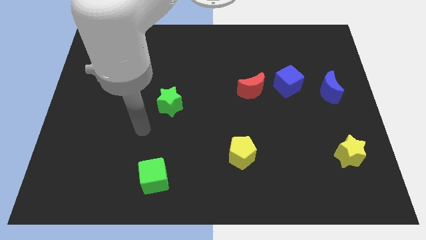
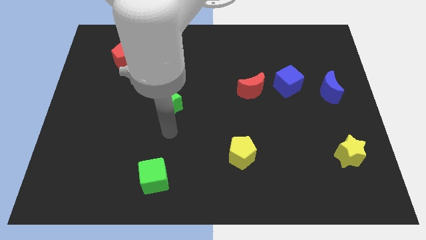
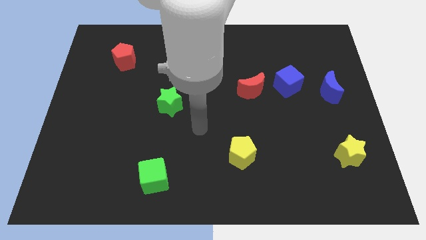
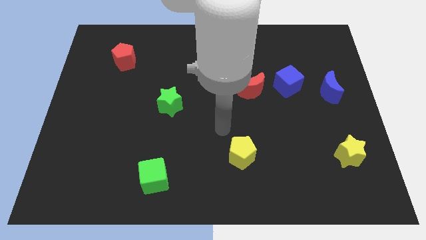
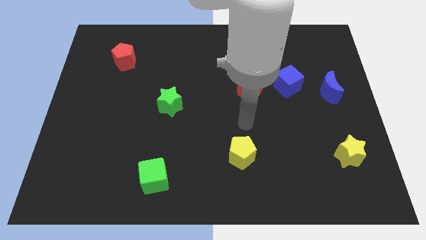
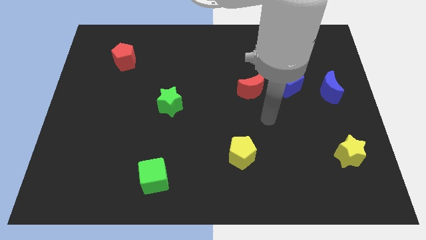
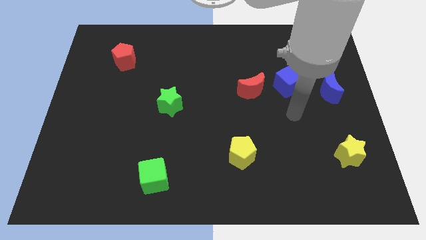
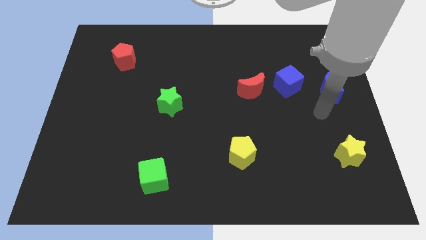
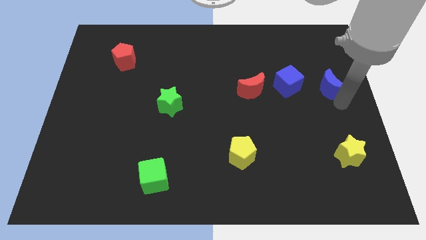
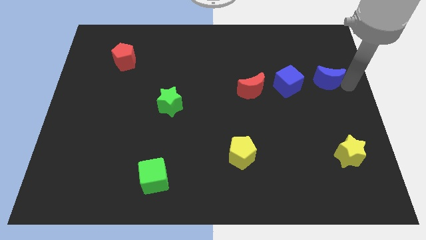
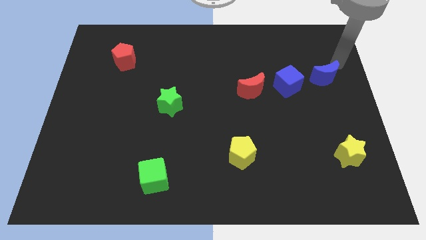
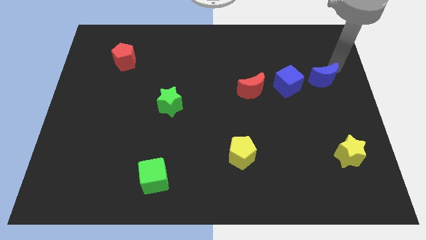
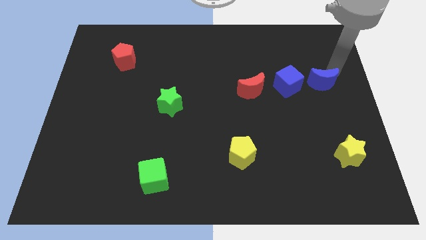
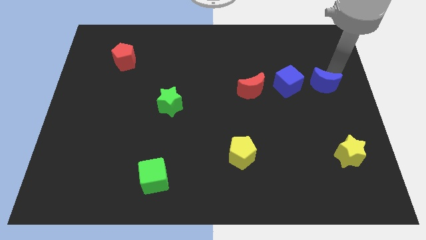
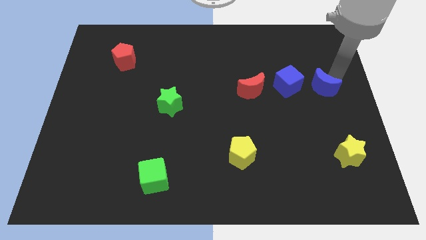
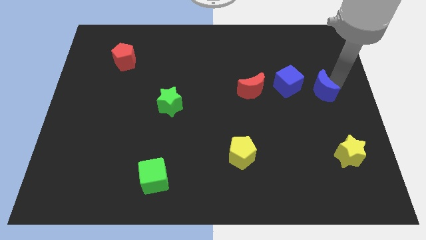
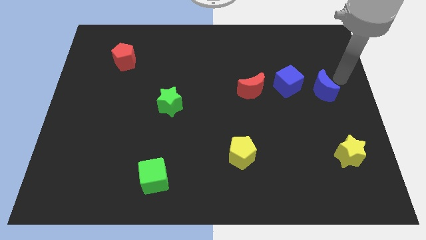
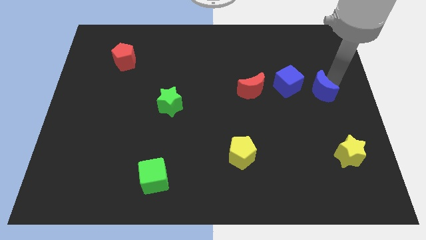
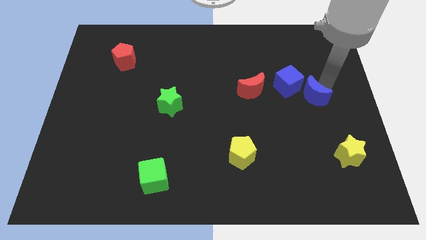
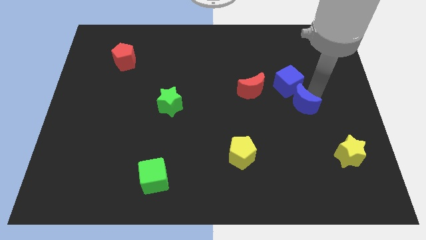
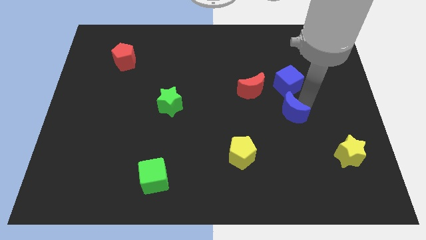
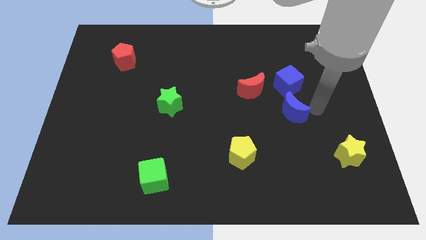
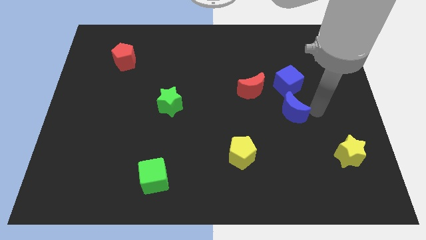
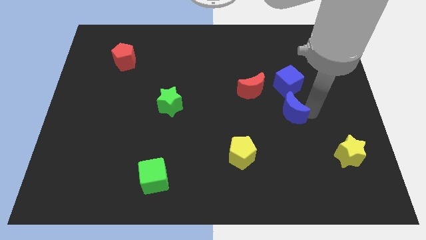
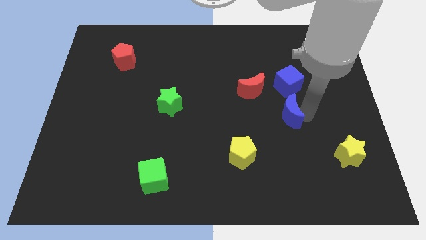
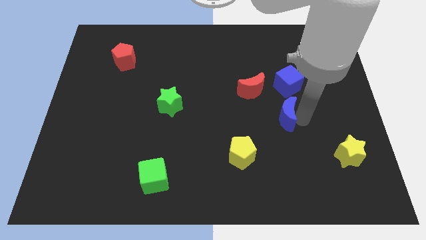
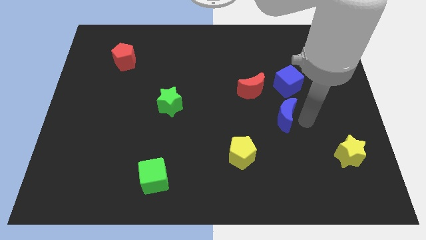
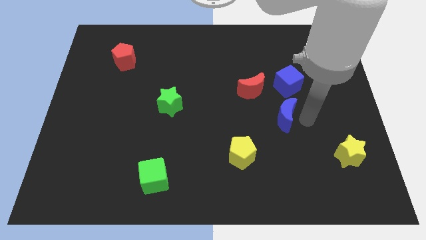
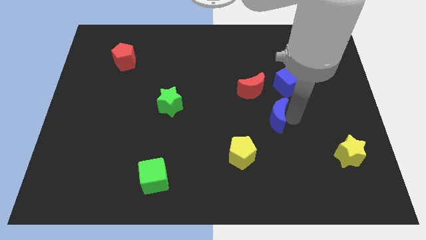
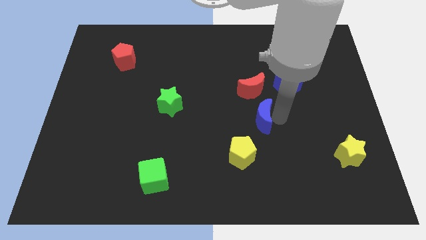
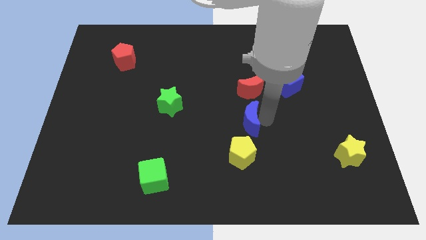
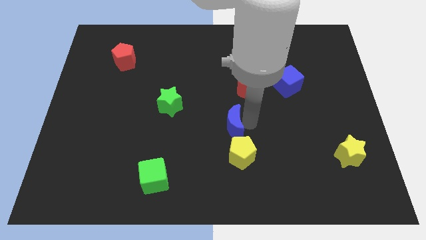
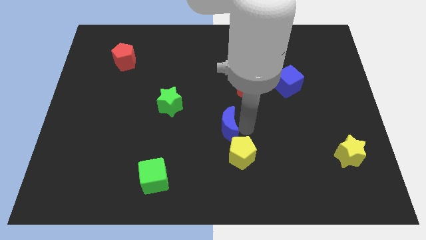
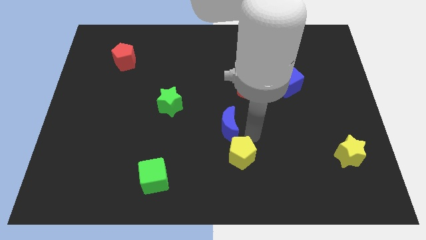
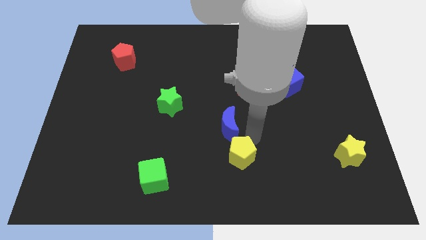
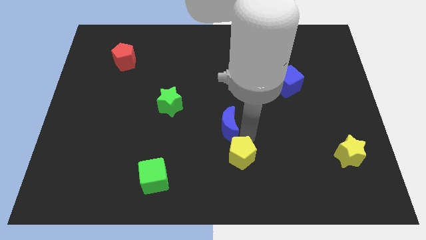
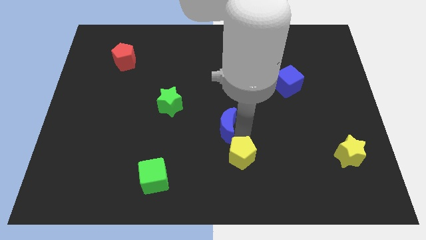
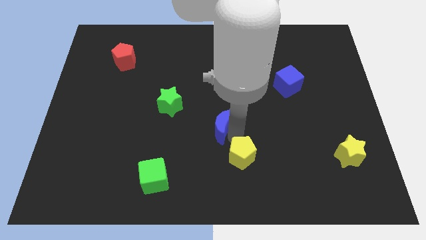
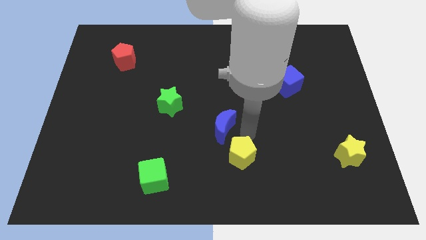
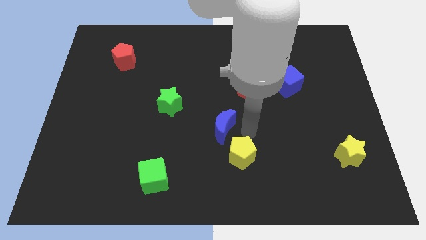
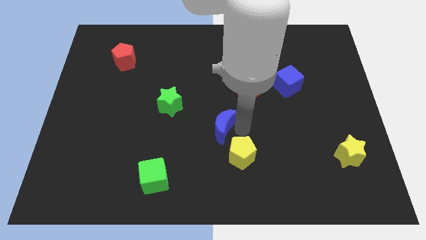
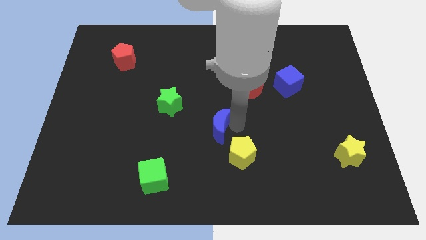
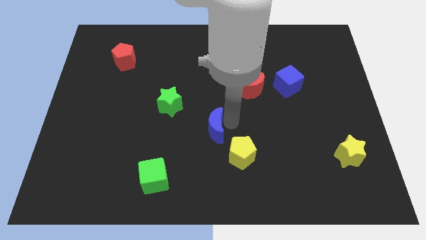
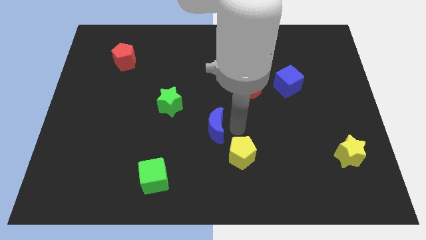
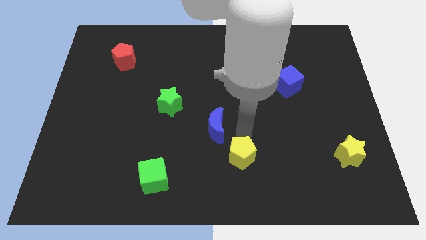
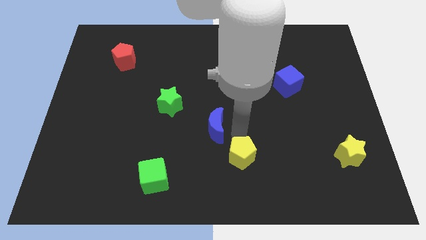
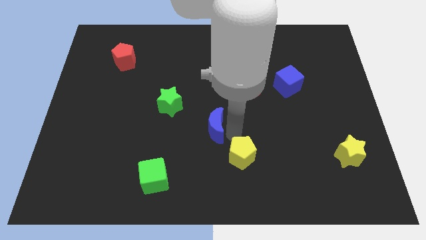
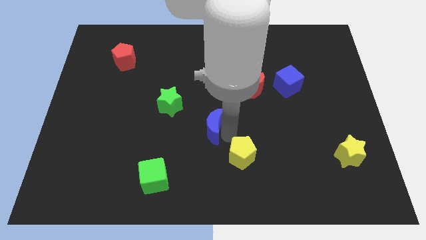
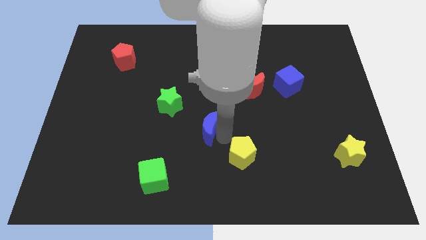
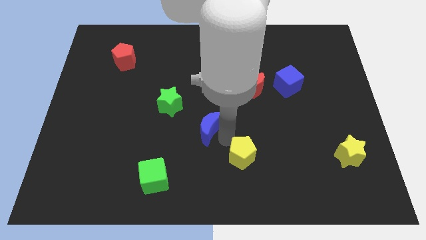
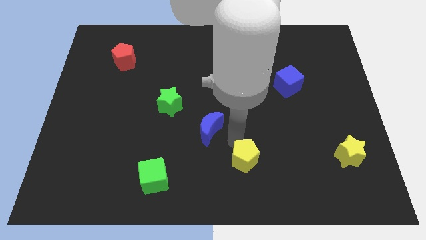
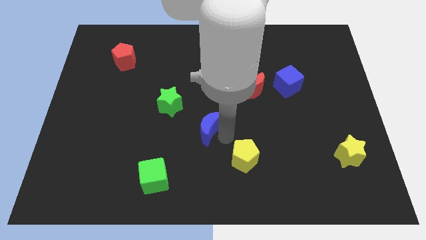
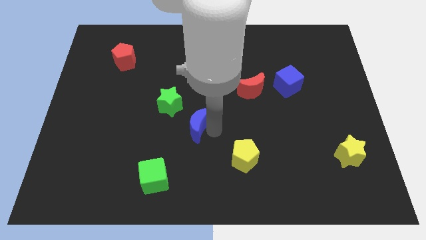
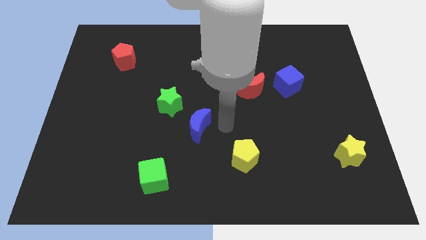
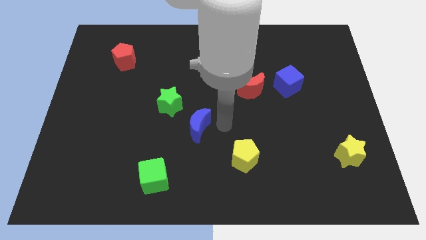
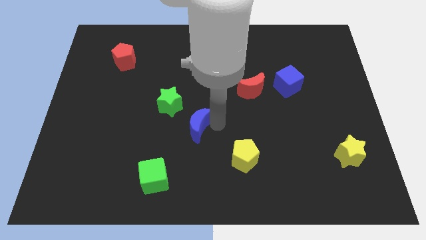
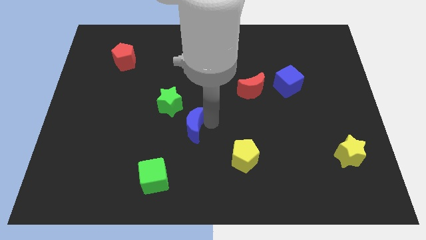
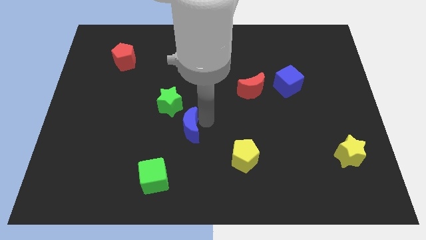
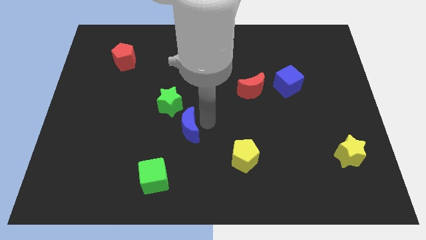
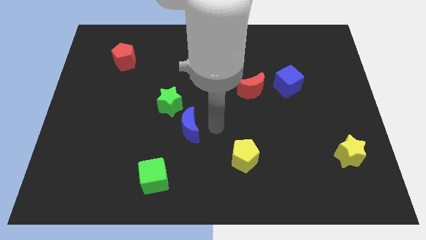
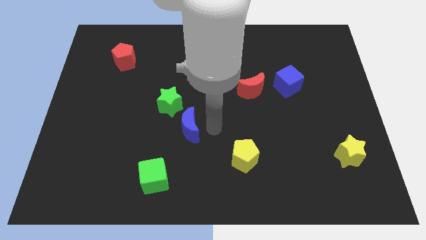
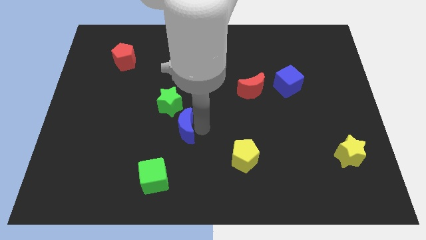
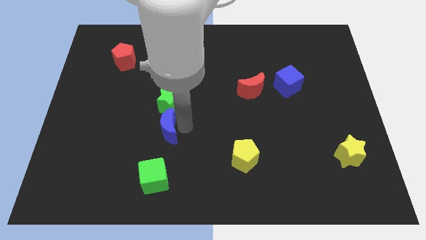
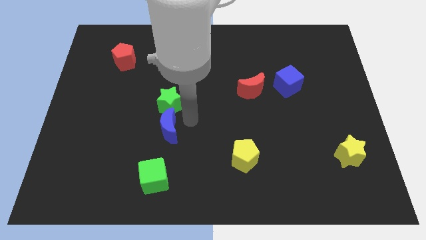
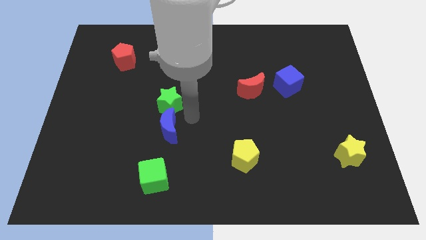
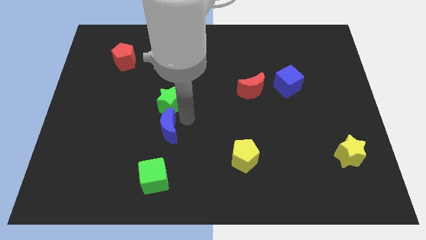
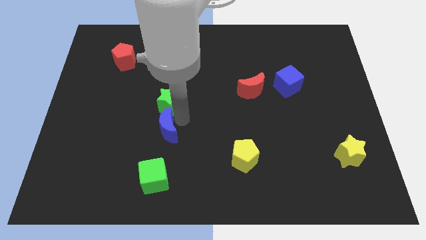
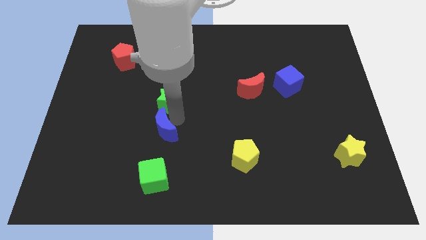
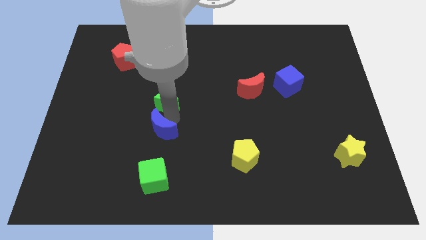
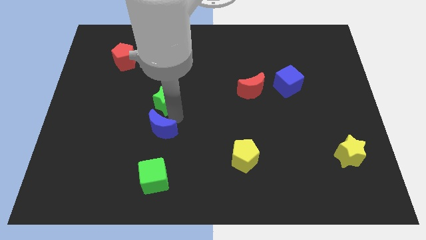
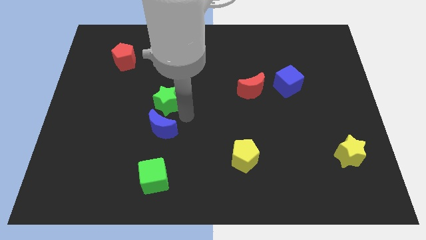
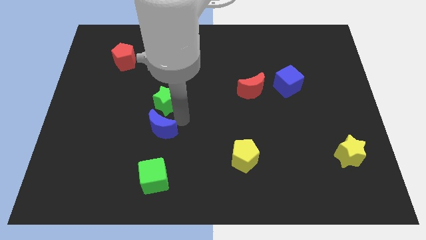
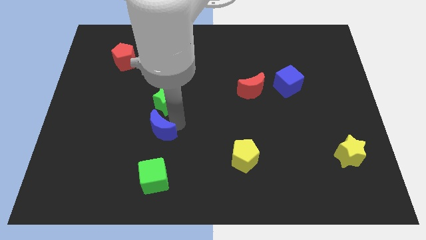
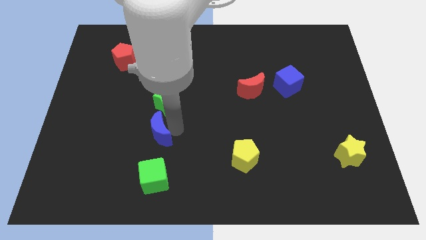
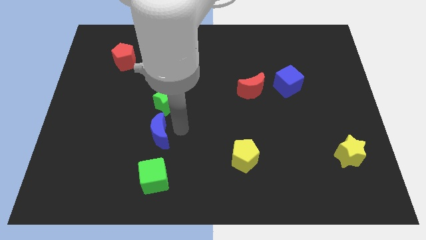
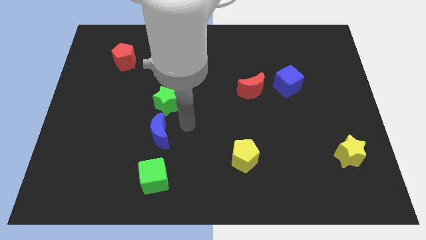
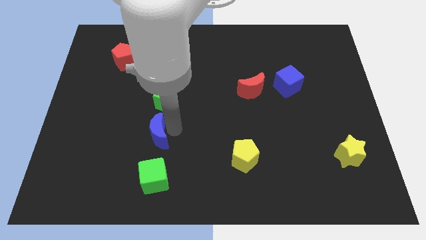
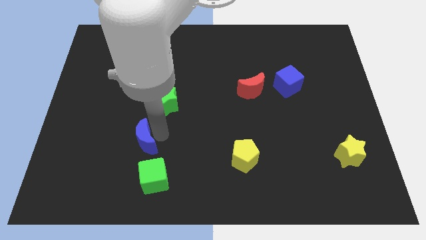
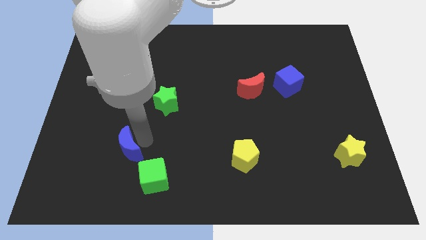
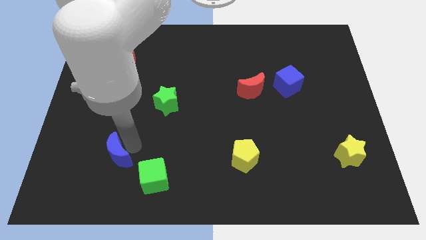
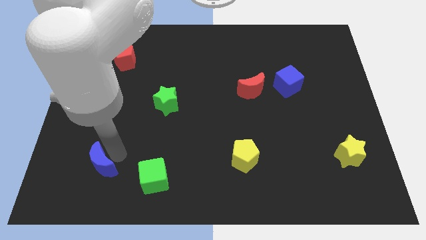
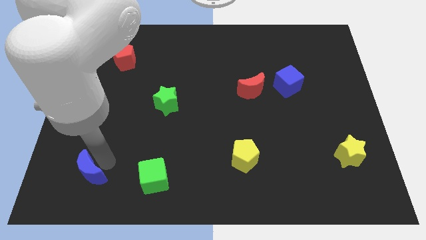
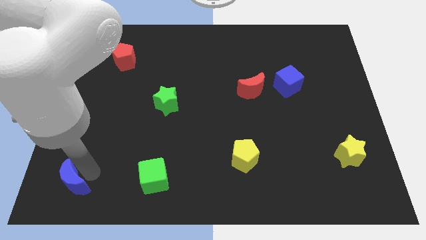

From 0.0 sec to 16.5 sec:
slide the blue moon to the bottom left corner
